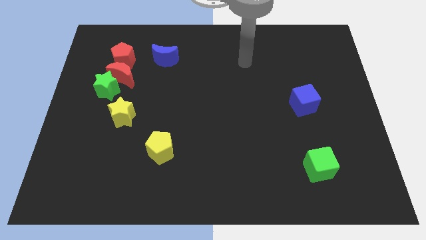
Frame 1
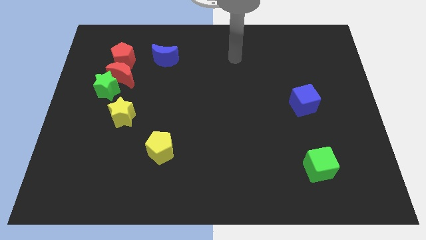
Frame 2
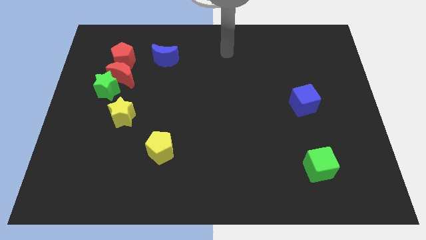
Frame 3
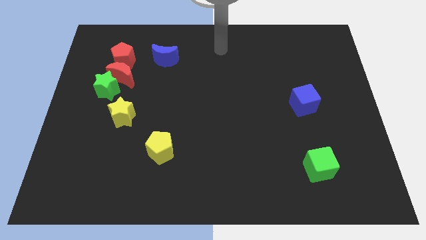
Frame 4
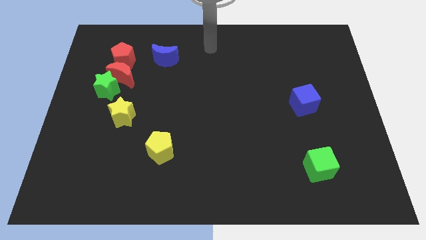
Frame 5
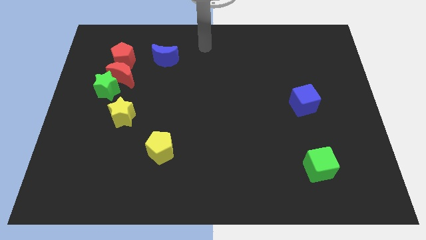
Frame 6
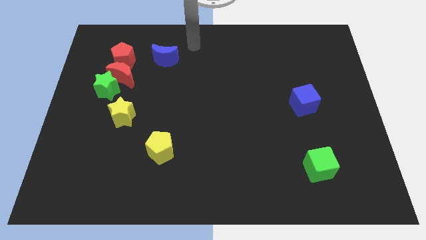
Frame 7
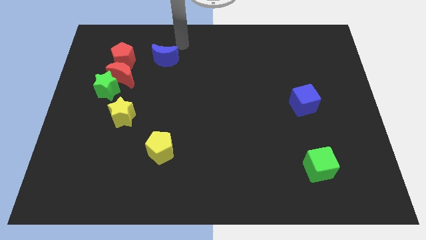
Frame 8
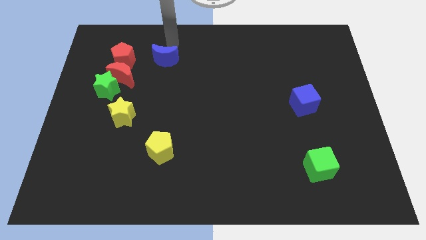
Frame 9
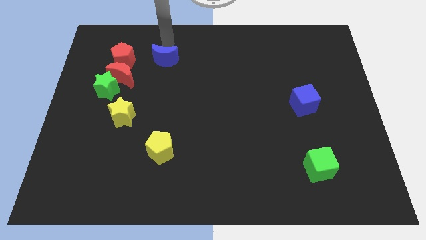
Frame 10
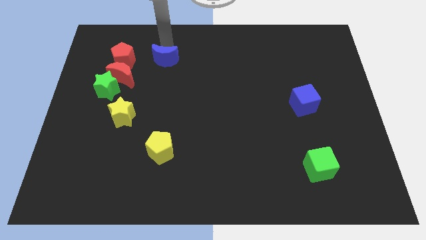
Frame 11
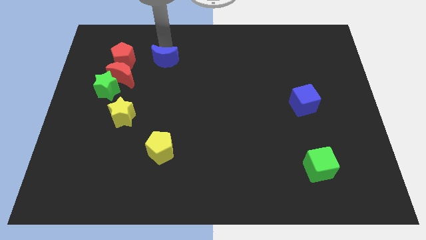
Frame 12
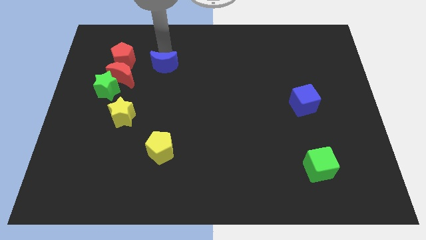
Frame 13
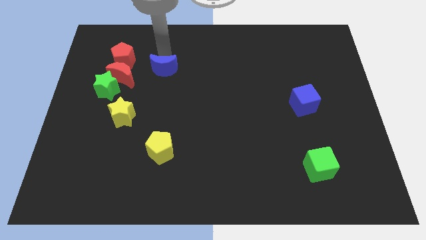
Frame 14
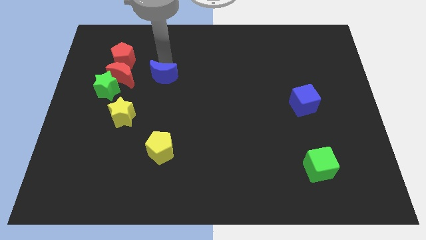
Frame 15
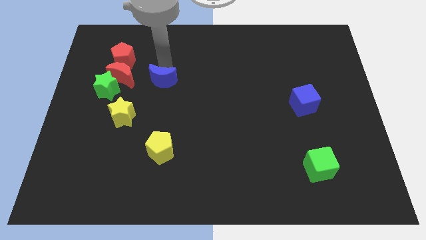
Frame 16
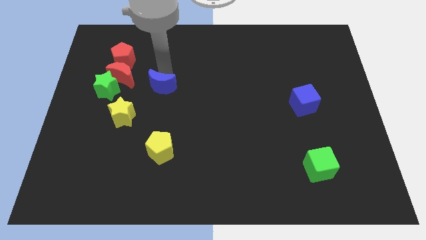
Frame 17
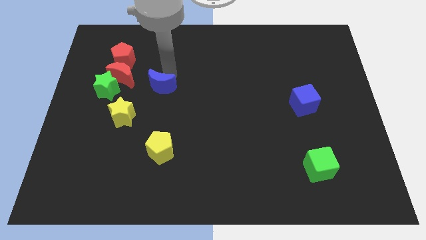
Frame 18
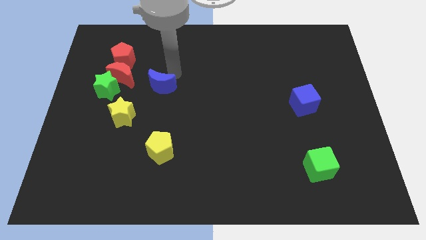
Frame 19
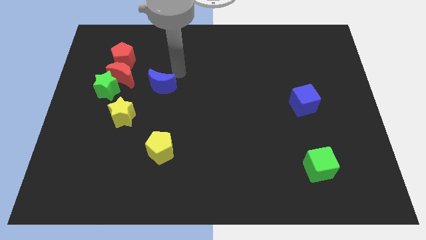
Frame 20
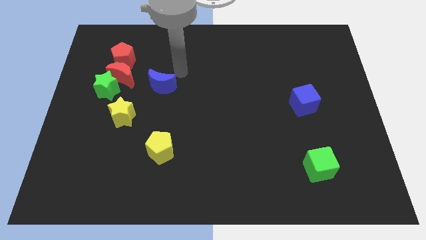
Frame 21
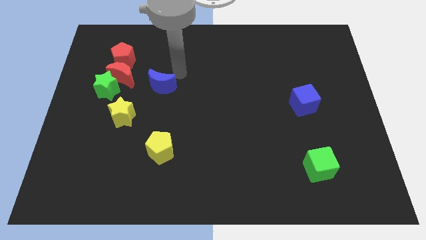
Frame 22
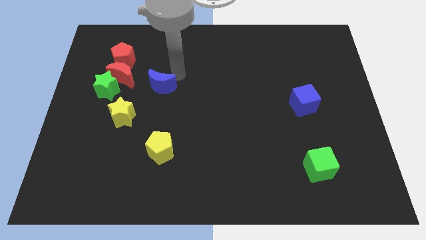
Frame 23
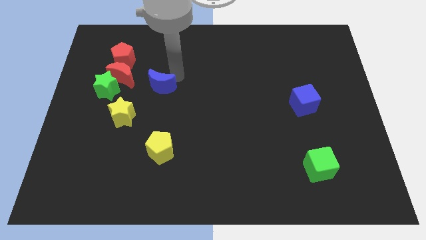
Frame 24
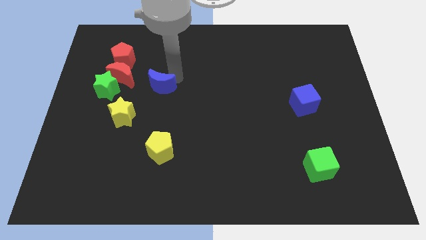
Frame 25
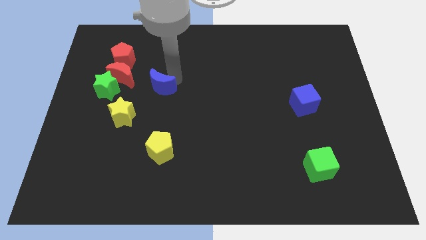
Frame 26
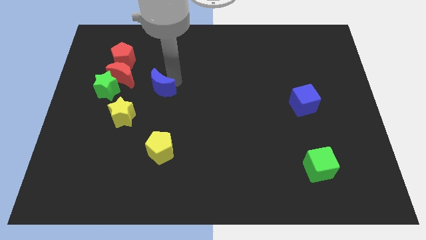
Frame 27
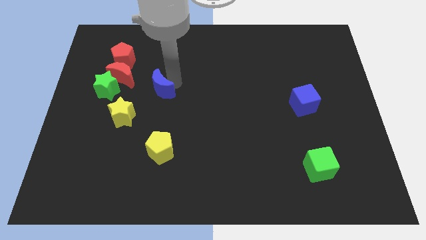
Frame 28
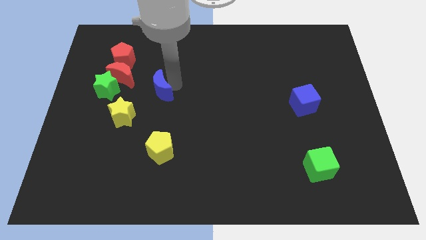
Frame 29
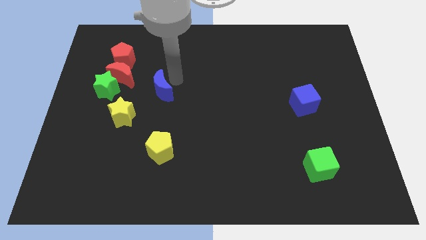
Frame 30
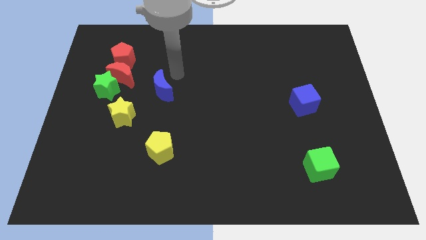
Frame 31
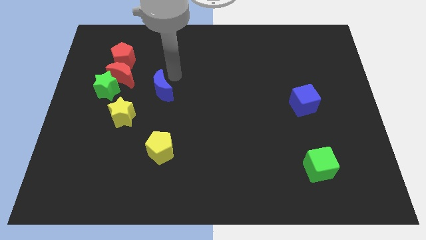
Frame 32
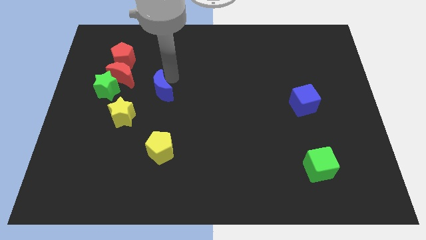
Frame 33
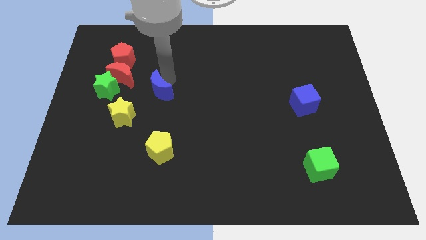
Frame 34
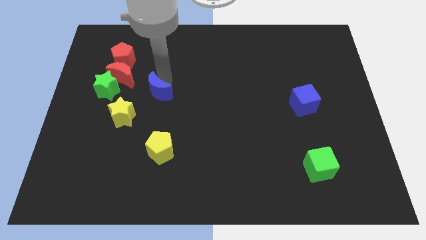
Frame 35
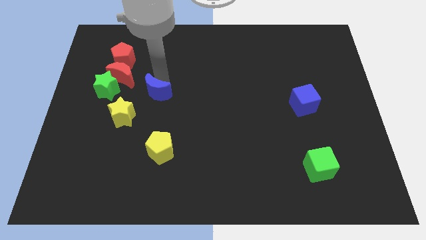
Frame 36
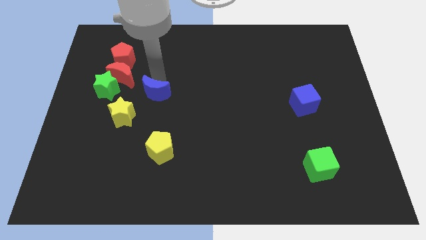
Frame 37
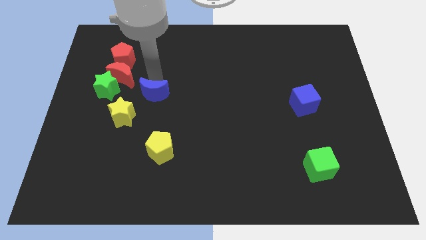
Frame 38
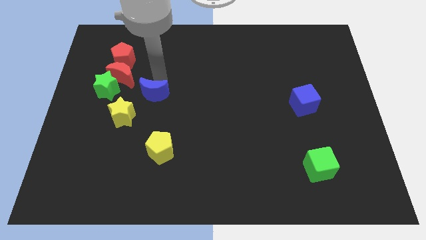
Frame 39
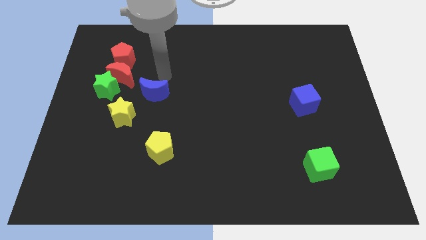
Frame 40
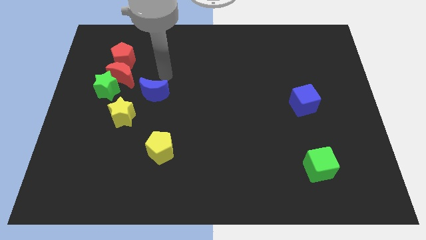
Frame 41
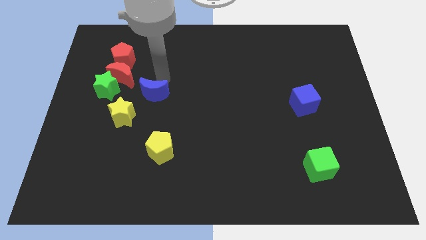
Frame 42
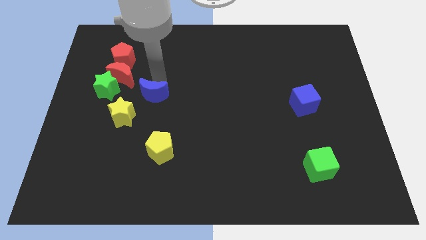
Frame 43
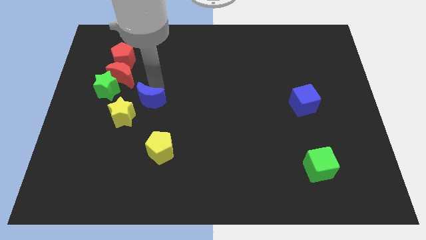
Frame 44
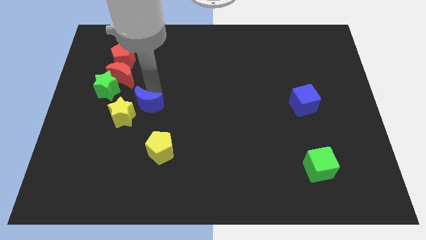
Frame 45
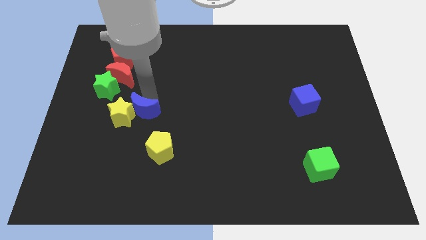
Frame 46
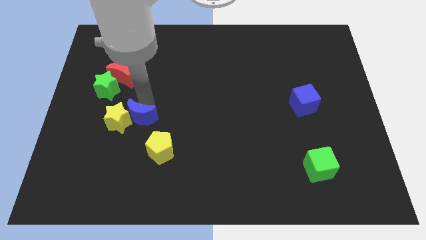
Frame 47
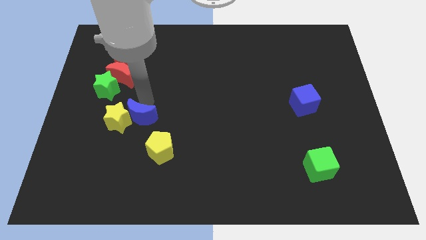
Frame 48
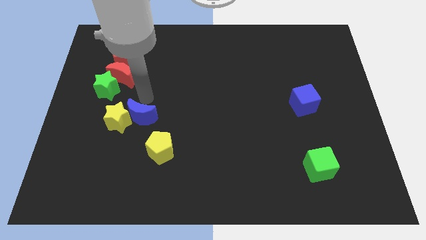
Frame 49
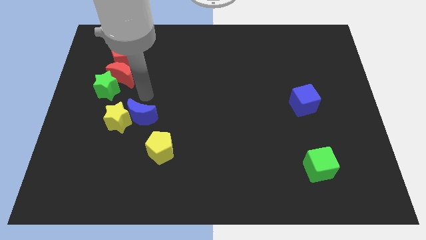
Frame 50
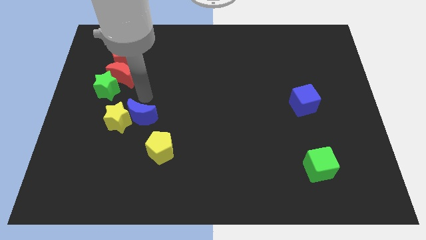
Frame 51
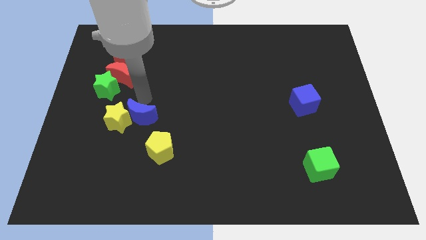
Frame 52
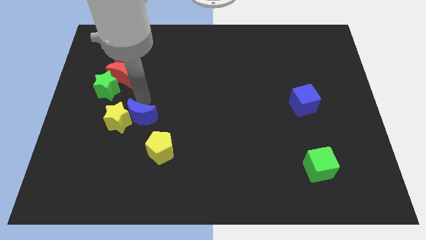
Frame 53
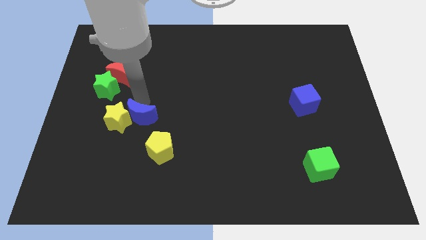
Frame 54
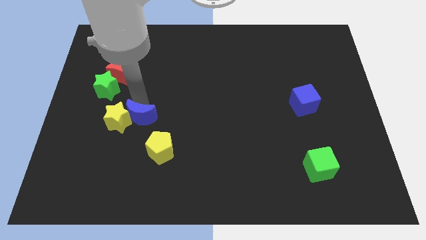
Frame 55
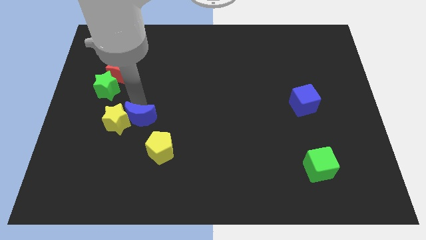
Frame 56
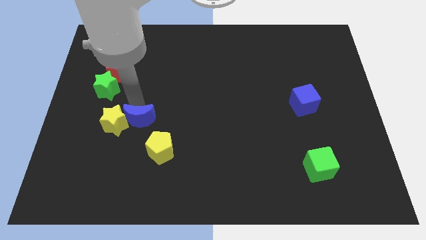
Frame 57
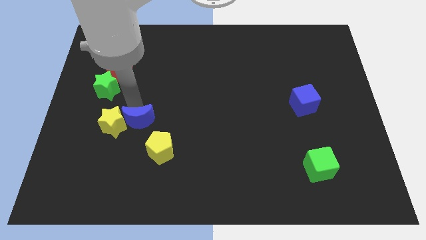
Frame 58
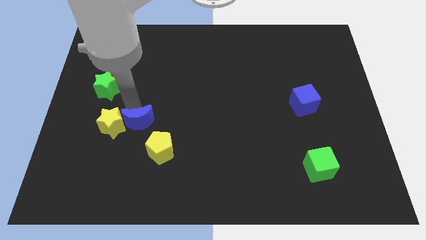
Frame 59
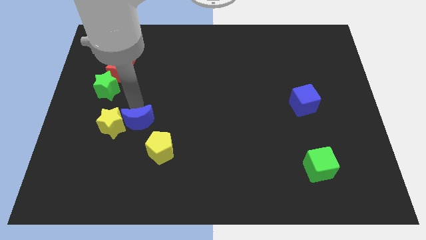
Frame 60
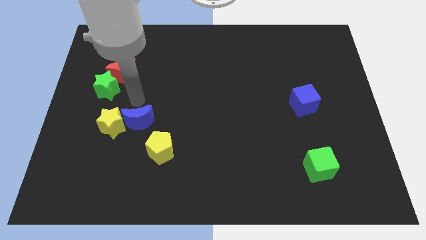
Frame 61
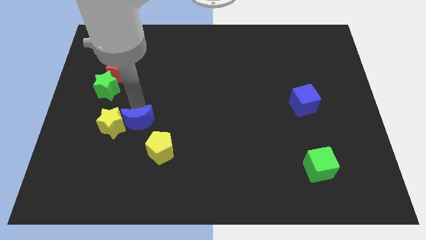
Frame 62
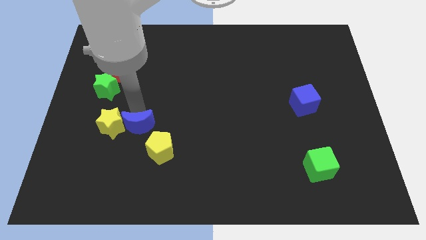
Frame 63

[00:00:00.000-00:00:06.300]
slide the blue moon down

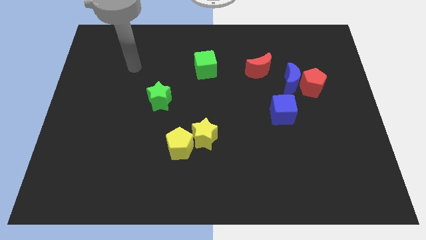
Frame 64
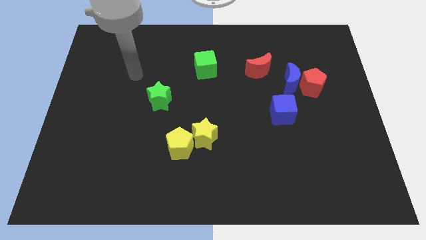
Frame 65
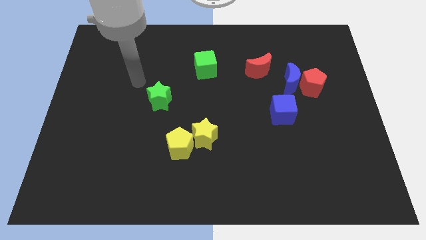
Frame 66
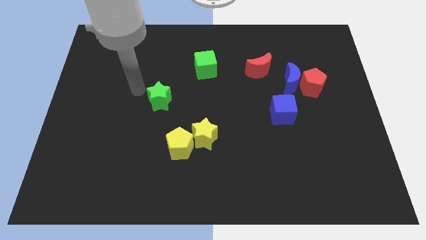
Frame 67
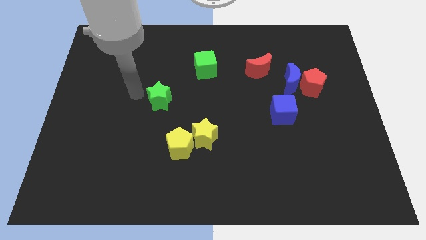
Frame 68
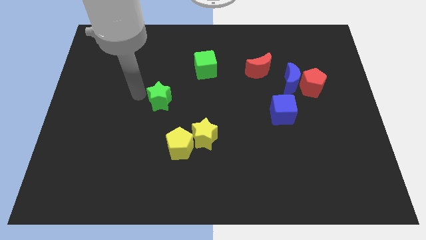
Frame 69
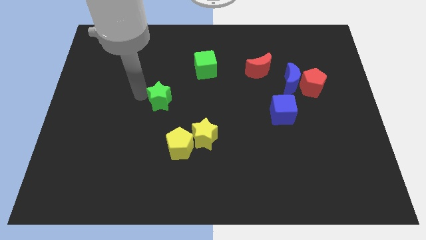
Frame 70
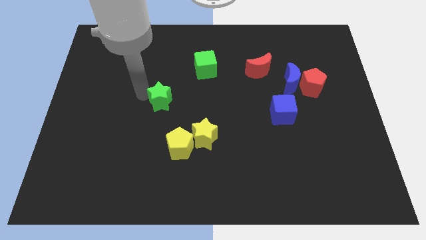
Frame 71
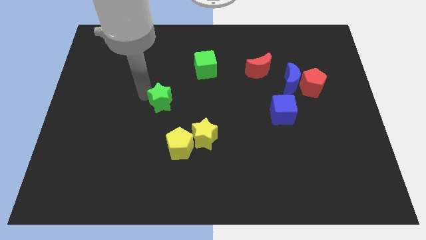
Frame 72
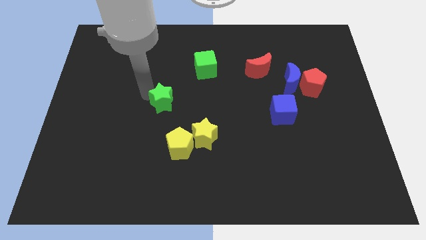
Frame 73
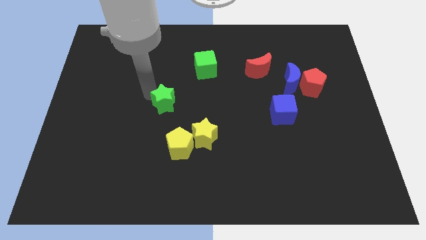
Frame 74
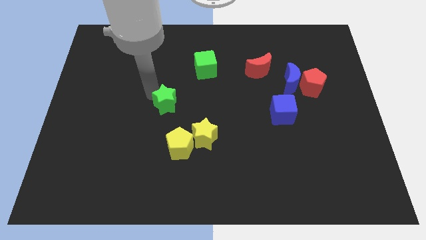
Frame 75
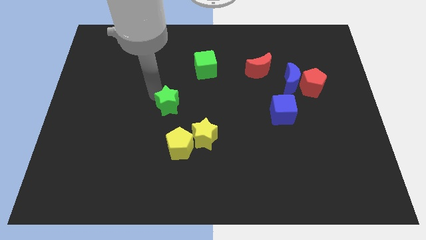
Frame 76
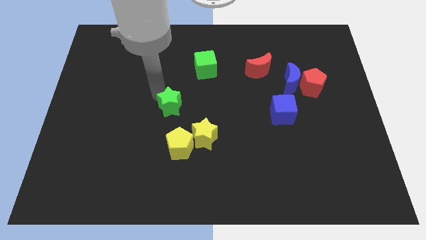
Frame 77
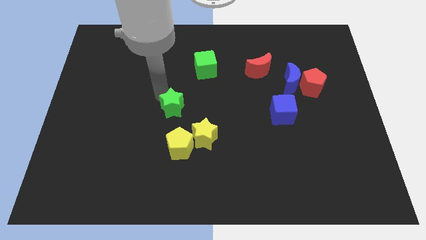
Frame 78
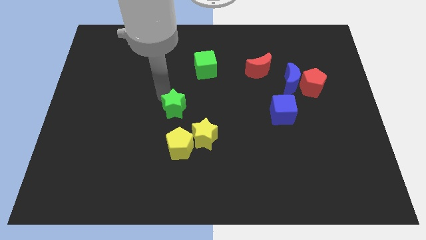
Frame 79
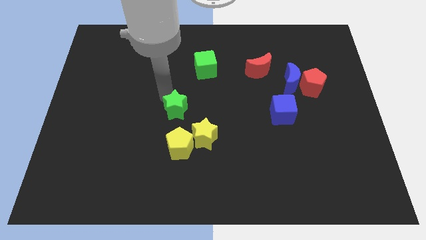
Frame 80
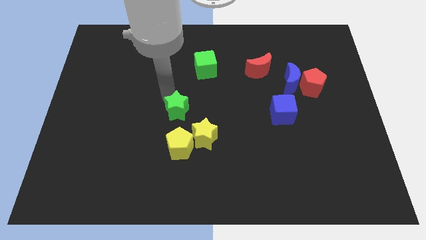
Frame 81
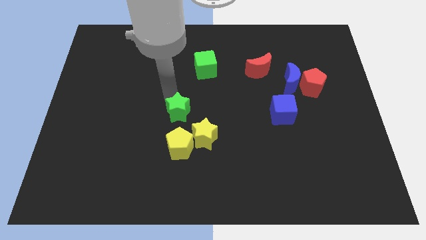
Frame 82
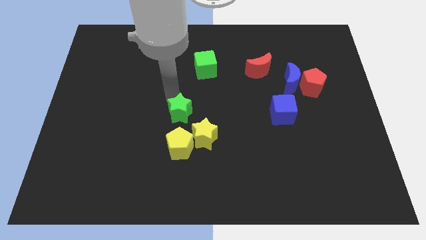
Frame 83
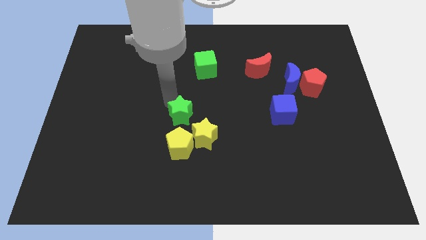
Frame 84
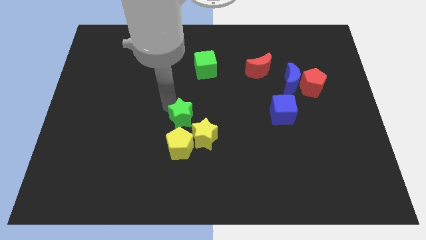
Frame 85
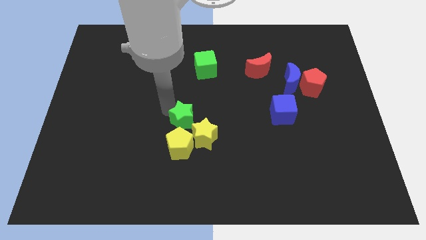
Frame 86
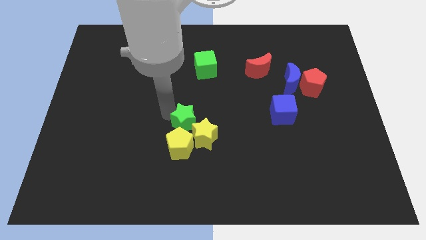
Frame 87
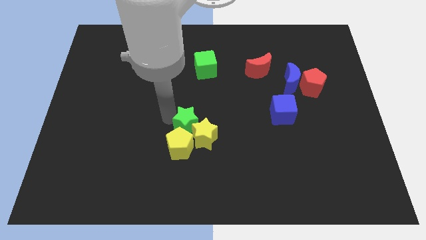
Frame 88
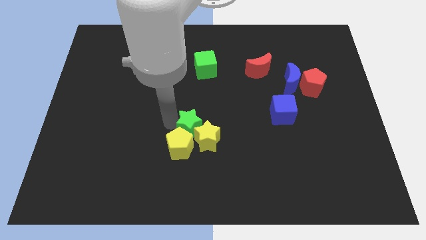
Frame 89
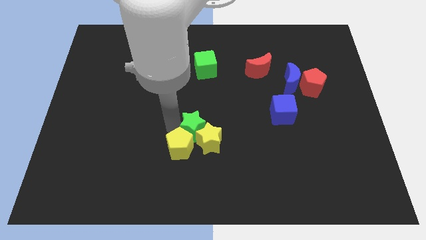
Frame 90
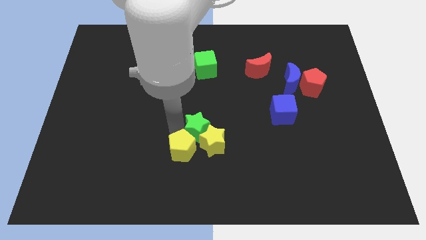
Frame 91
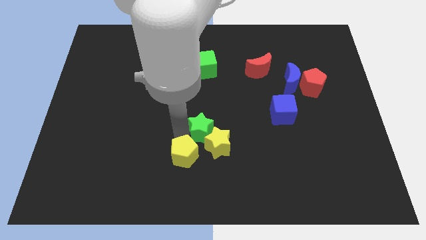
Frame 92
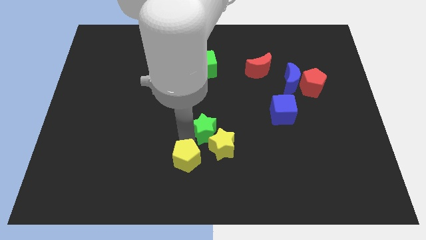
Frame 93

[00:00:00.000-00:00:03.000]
push the green star to the right a bit
